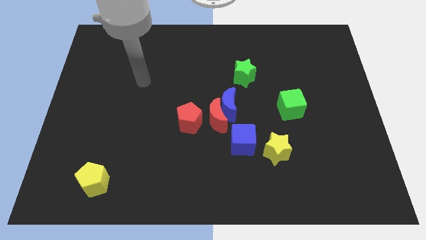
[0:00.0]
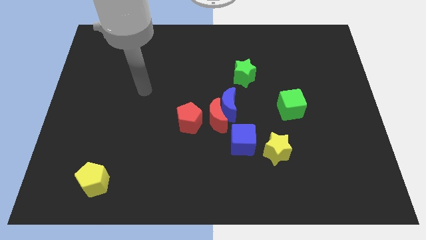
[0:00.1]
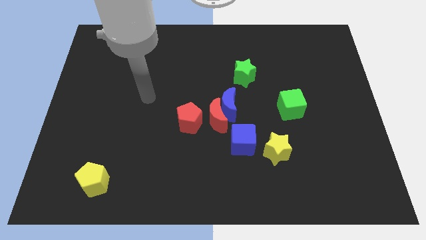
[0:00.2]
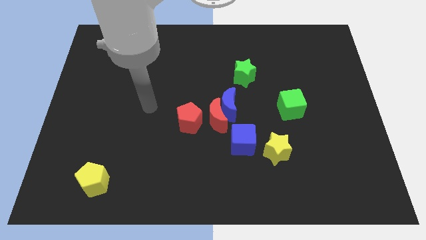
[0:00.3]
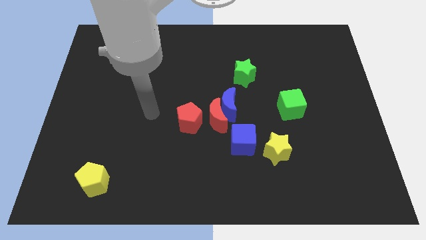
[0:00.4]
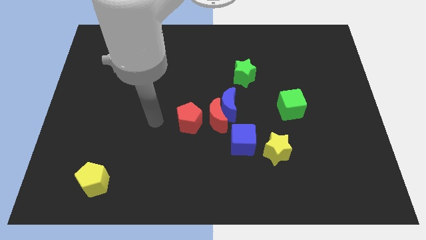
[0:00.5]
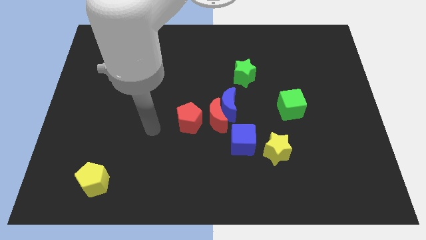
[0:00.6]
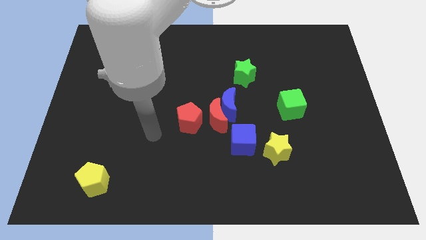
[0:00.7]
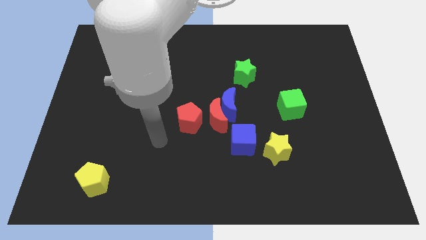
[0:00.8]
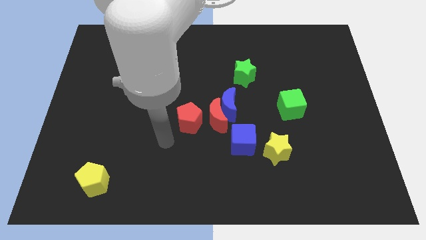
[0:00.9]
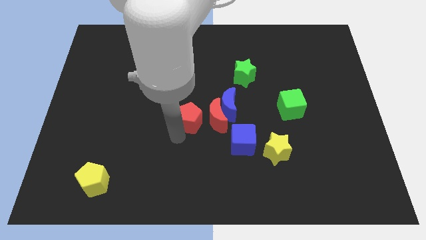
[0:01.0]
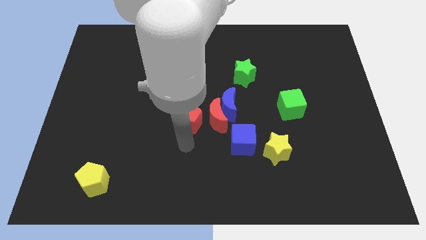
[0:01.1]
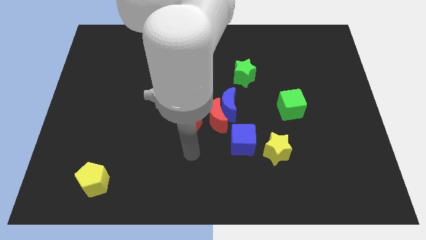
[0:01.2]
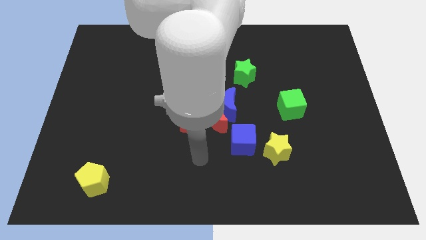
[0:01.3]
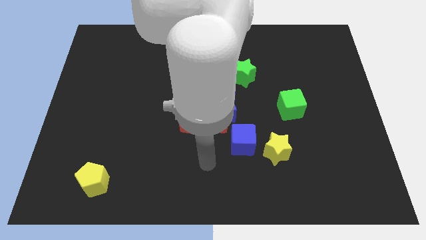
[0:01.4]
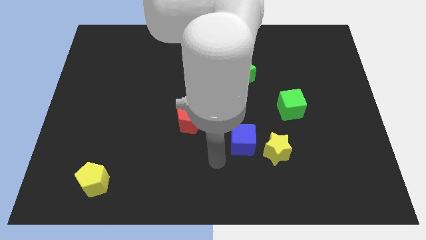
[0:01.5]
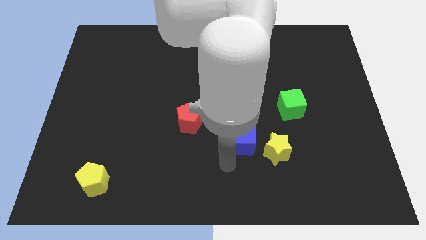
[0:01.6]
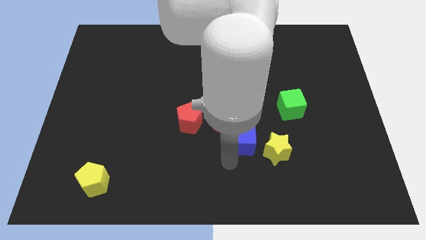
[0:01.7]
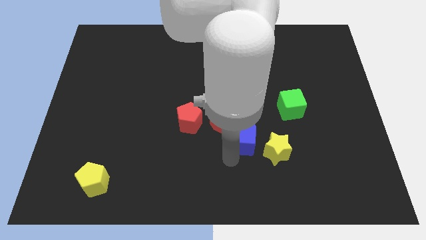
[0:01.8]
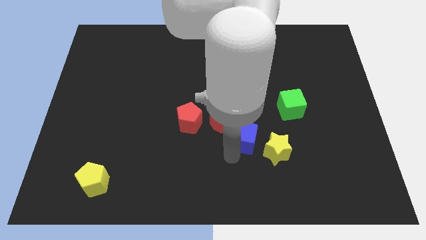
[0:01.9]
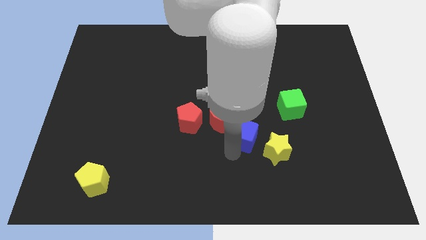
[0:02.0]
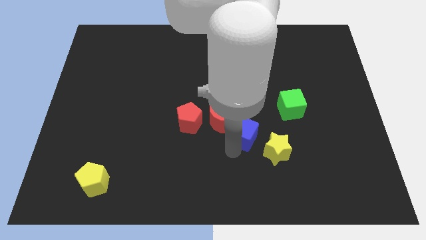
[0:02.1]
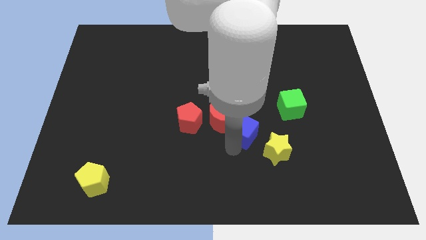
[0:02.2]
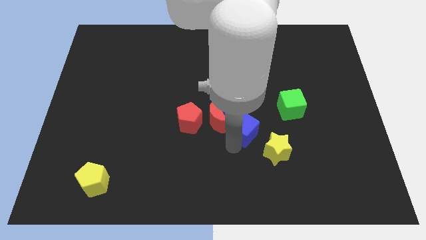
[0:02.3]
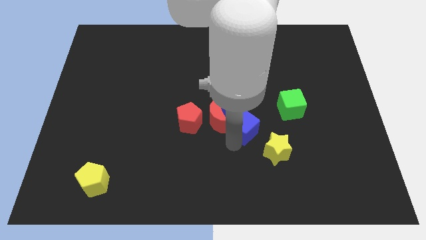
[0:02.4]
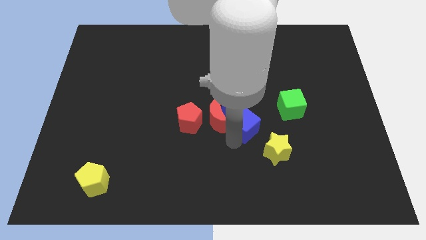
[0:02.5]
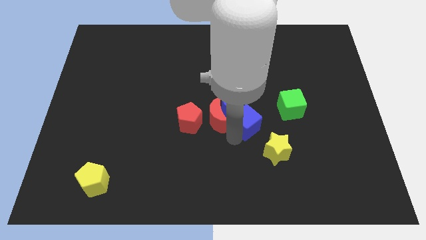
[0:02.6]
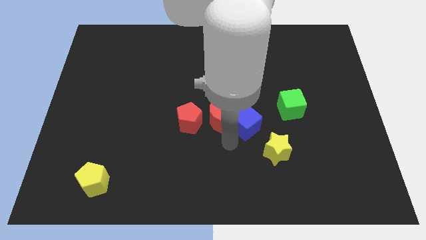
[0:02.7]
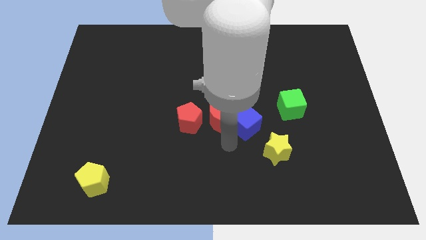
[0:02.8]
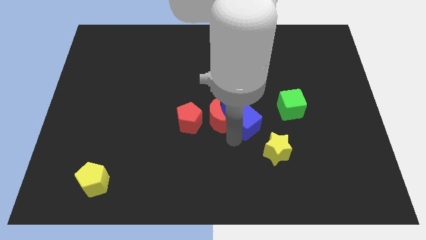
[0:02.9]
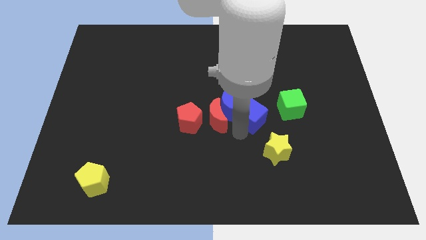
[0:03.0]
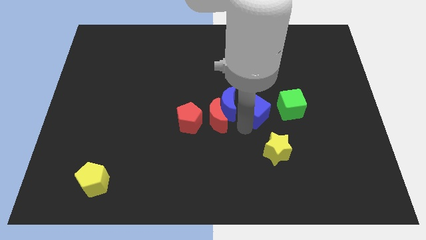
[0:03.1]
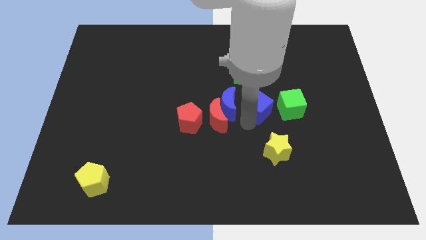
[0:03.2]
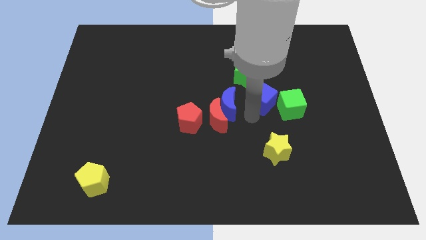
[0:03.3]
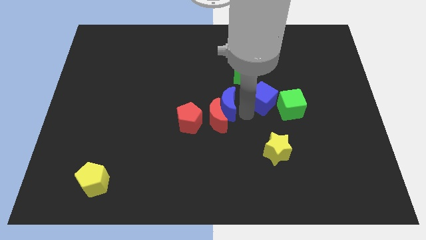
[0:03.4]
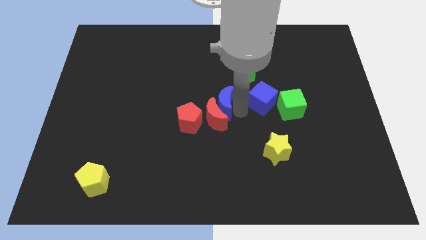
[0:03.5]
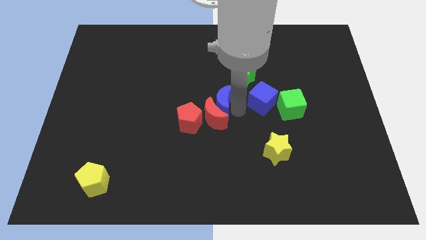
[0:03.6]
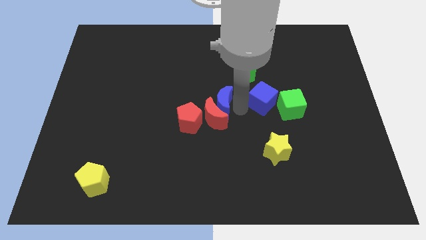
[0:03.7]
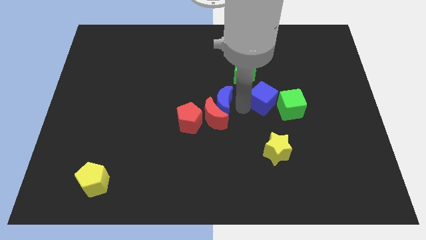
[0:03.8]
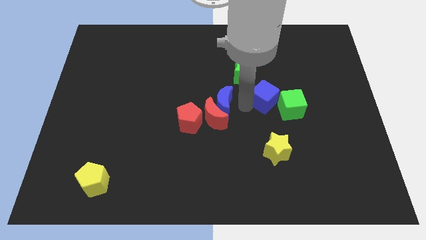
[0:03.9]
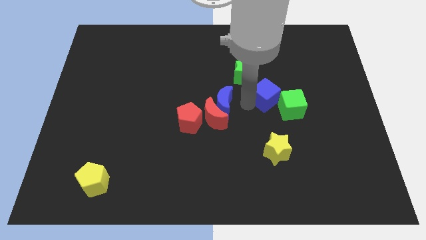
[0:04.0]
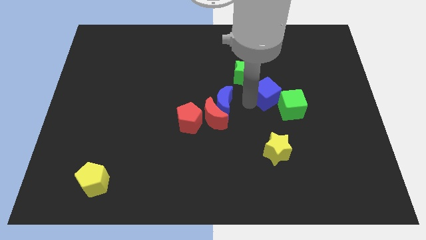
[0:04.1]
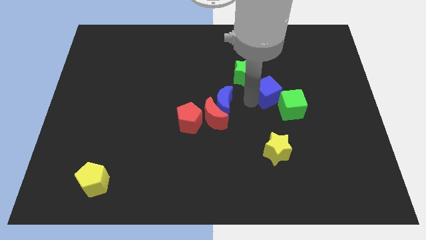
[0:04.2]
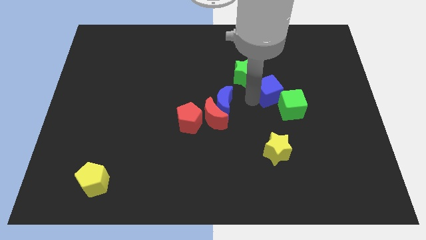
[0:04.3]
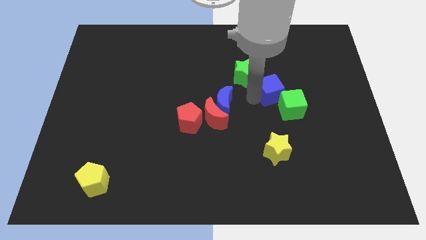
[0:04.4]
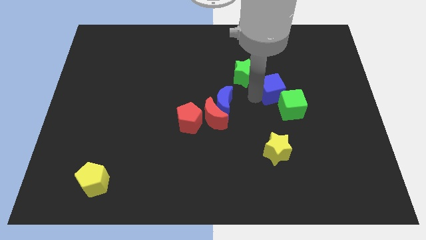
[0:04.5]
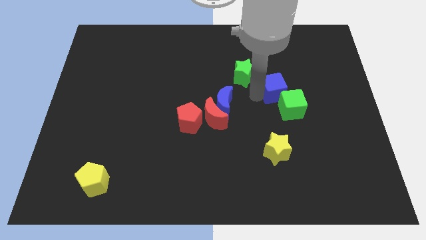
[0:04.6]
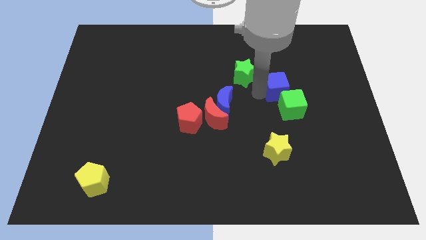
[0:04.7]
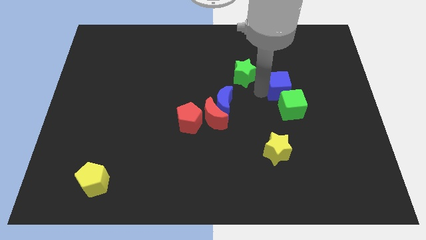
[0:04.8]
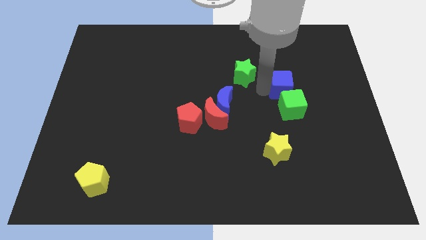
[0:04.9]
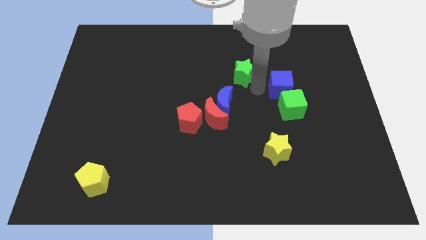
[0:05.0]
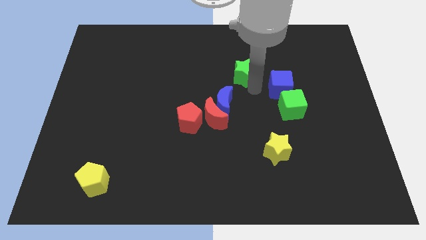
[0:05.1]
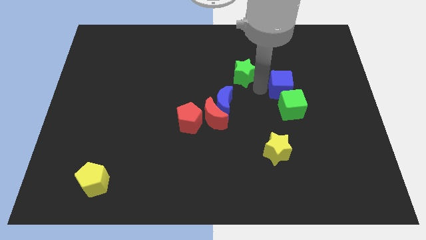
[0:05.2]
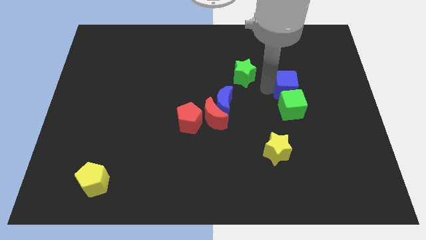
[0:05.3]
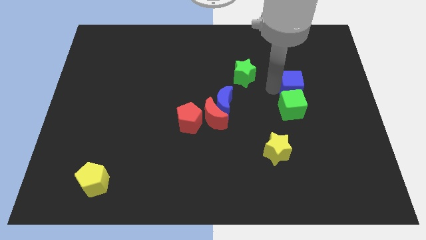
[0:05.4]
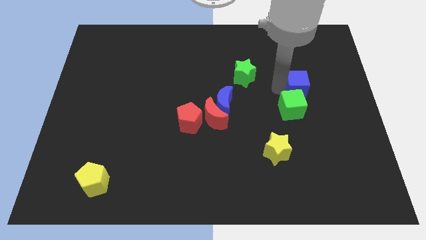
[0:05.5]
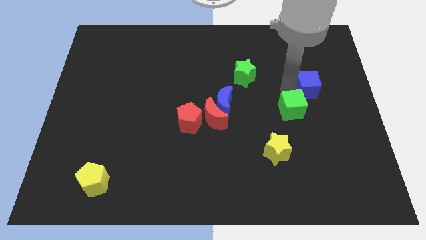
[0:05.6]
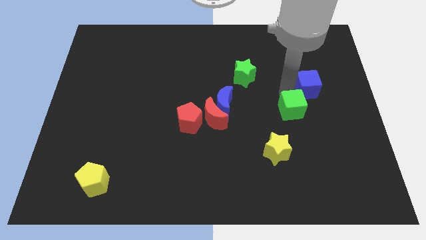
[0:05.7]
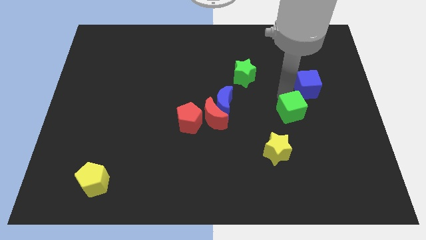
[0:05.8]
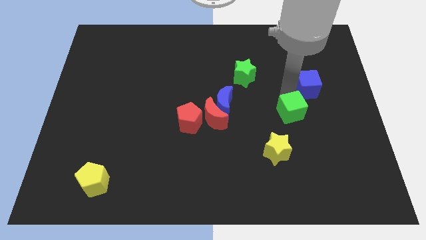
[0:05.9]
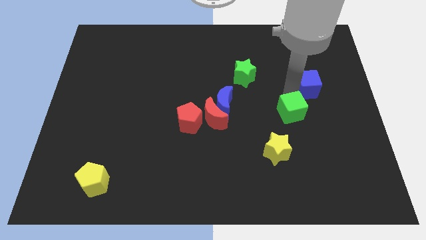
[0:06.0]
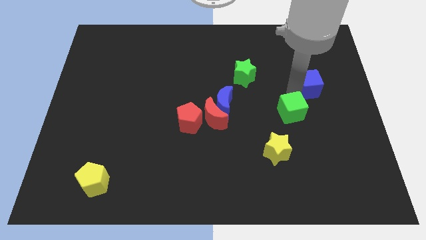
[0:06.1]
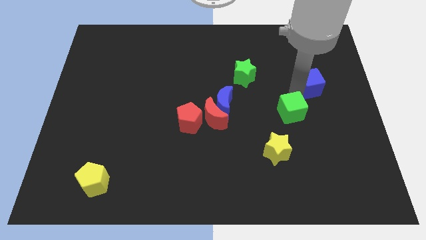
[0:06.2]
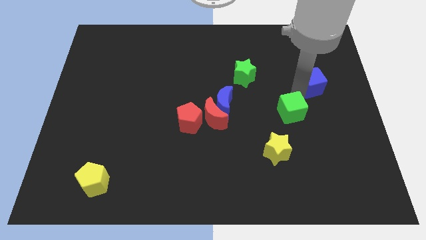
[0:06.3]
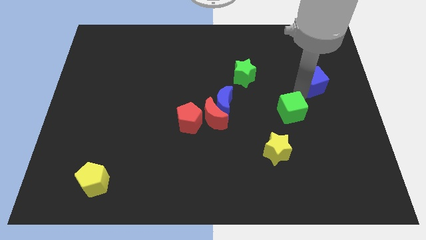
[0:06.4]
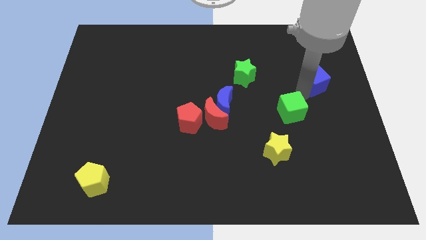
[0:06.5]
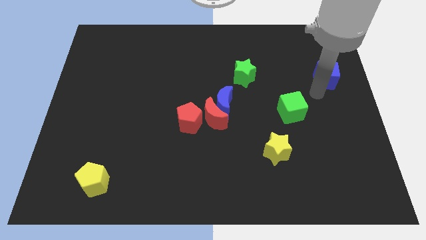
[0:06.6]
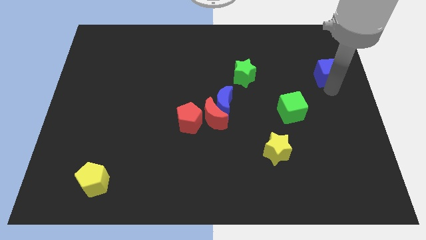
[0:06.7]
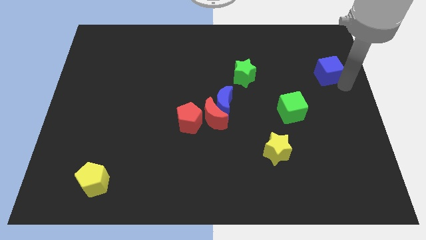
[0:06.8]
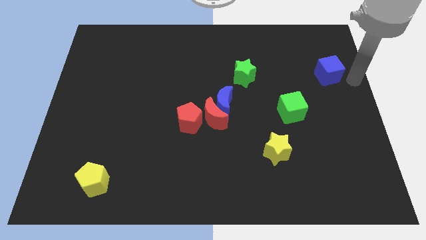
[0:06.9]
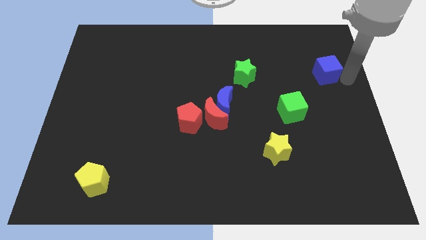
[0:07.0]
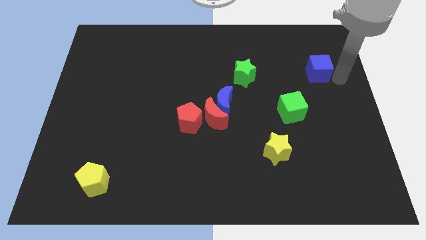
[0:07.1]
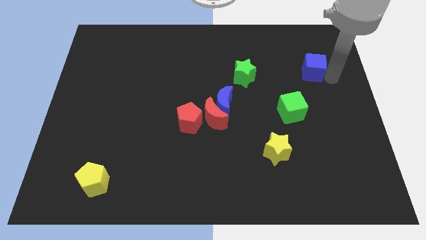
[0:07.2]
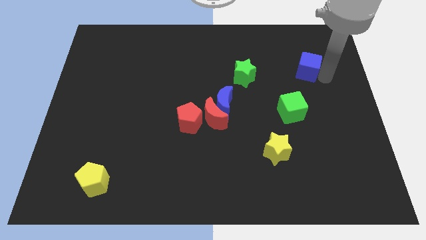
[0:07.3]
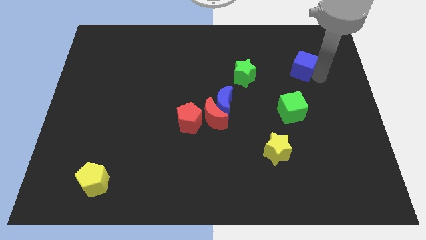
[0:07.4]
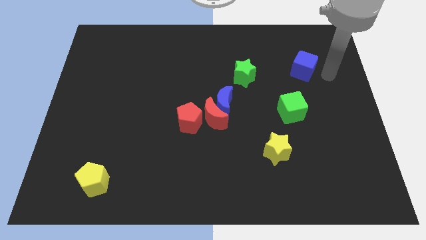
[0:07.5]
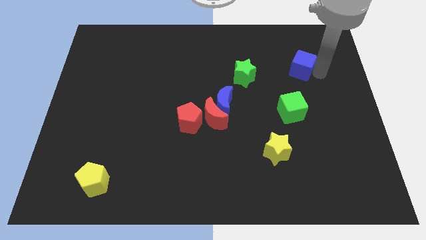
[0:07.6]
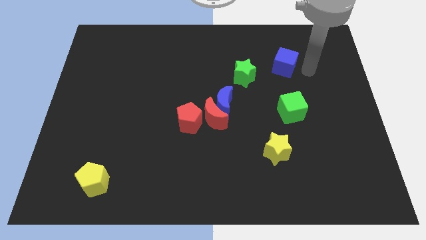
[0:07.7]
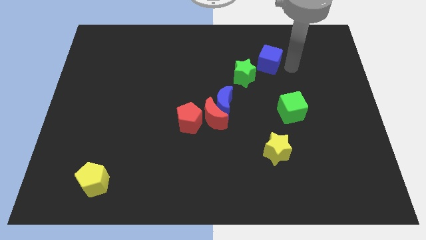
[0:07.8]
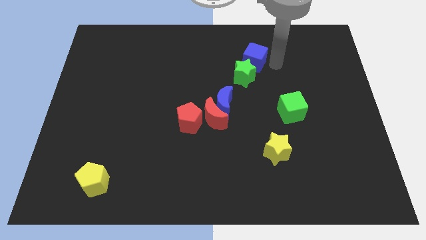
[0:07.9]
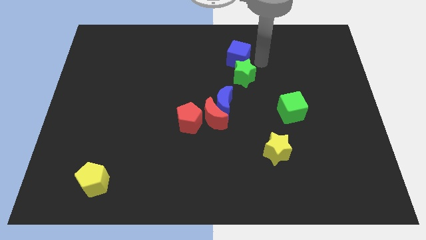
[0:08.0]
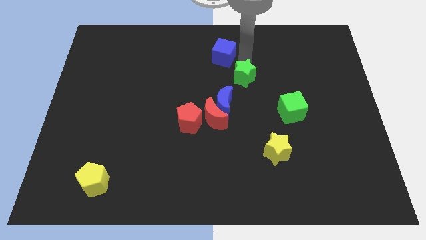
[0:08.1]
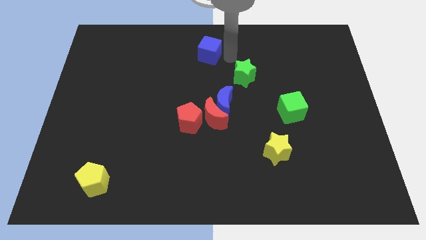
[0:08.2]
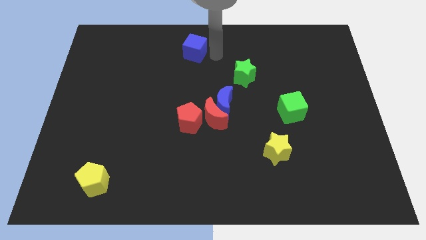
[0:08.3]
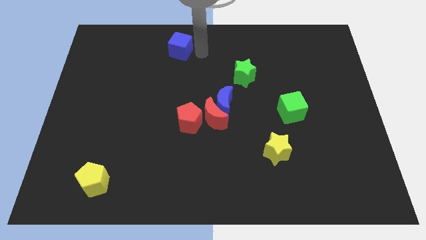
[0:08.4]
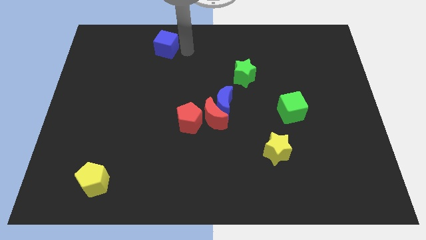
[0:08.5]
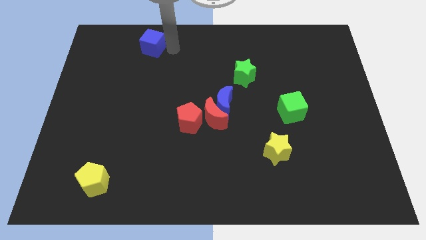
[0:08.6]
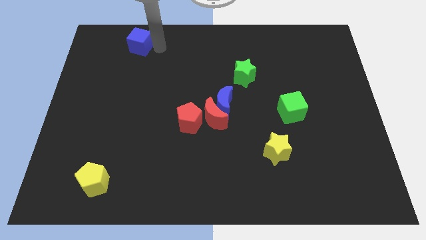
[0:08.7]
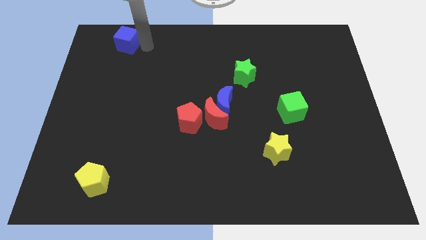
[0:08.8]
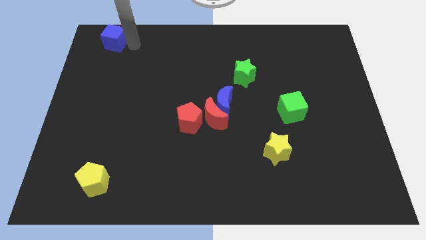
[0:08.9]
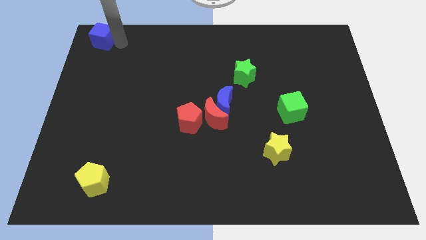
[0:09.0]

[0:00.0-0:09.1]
put the blue cube to the top left corner
